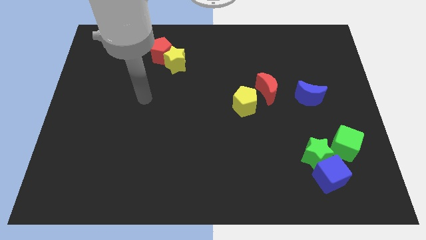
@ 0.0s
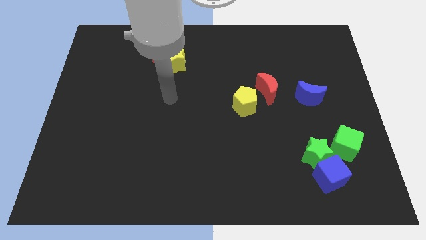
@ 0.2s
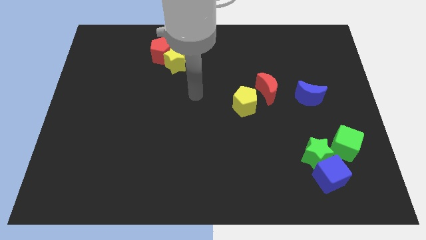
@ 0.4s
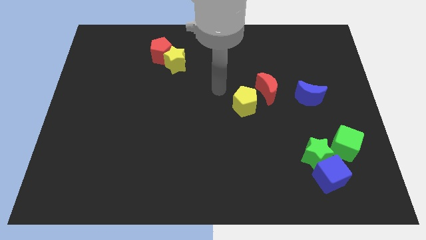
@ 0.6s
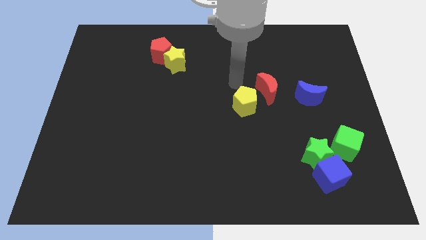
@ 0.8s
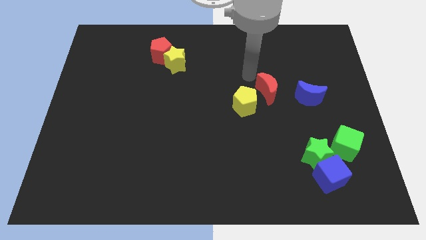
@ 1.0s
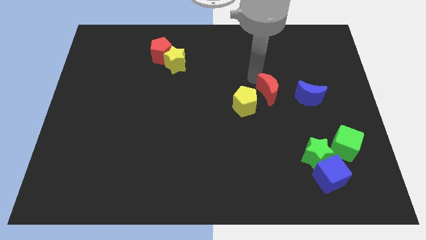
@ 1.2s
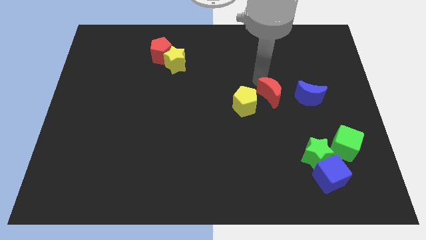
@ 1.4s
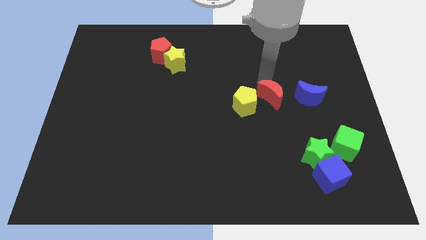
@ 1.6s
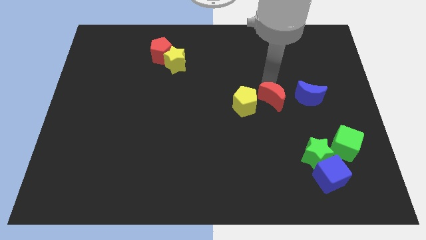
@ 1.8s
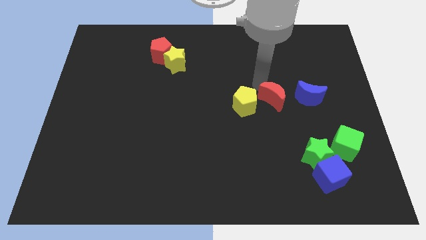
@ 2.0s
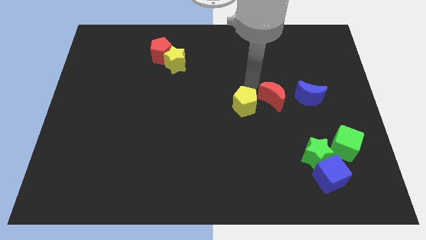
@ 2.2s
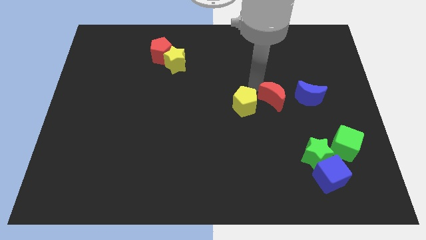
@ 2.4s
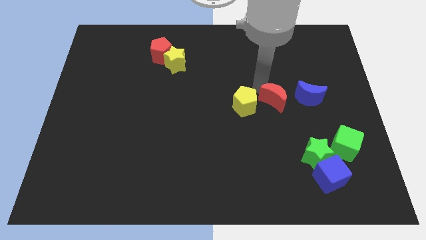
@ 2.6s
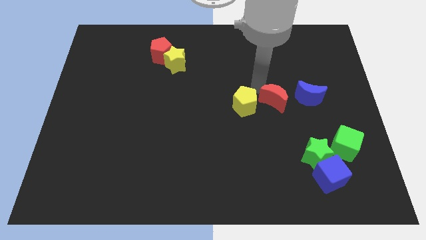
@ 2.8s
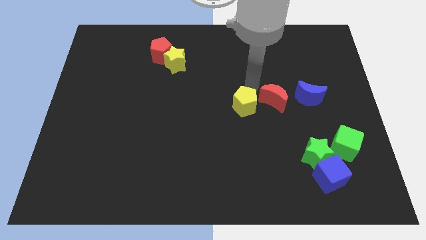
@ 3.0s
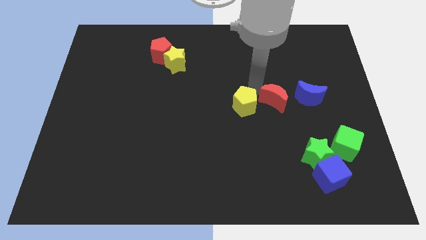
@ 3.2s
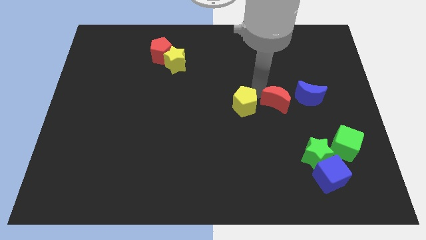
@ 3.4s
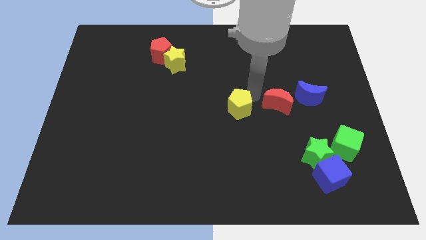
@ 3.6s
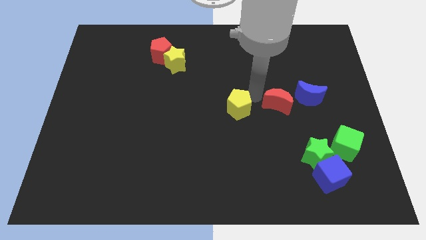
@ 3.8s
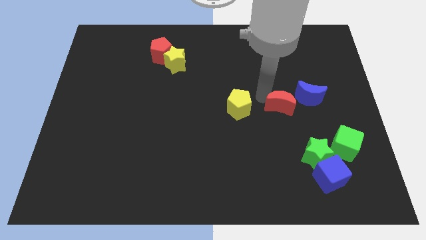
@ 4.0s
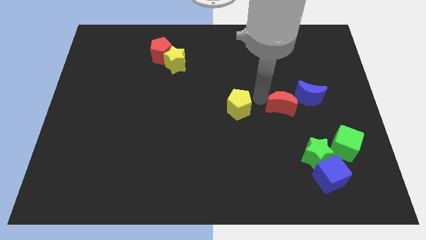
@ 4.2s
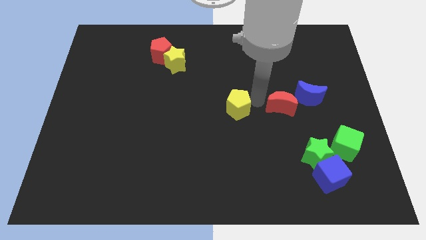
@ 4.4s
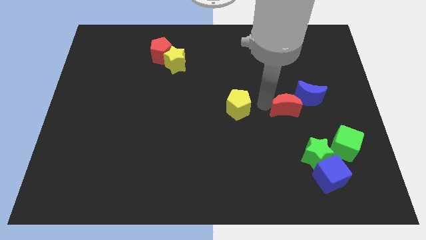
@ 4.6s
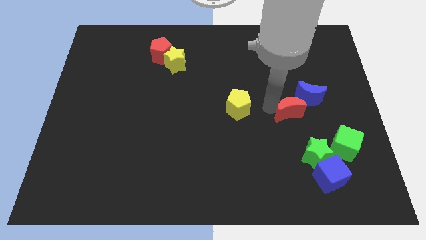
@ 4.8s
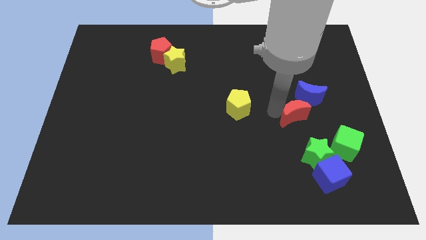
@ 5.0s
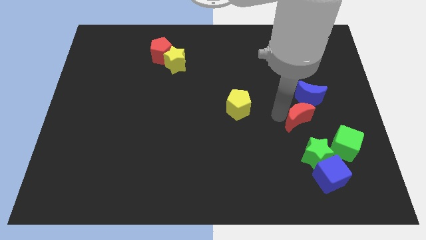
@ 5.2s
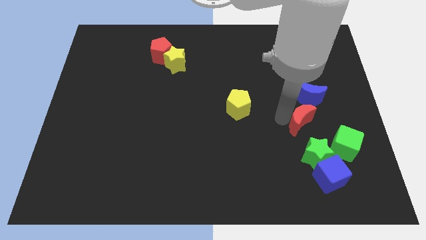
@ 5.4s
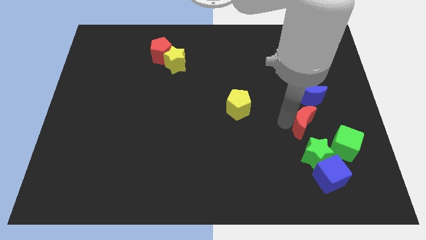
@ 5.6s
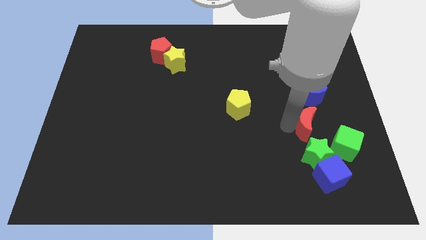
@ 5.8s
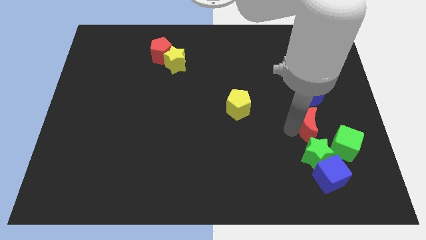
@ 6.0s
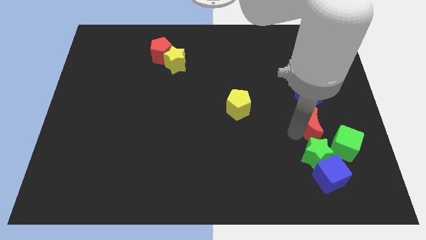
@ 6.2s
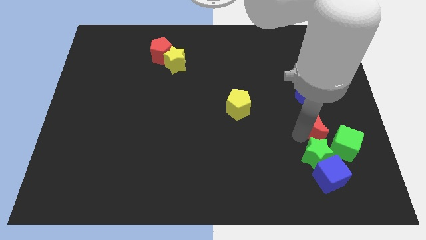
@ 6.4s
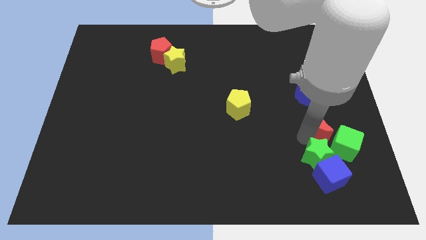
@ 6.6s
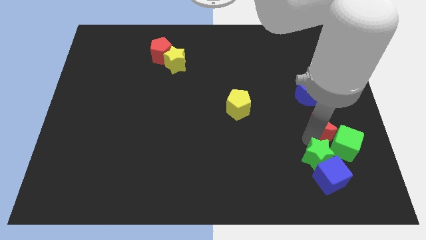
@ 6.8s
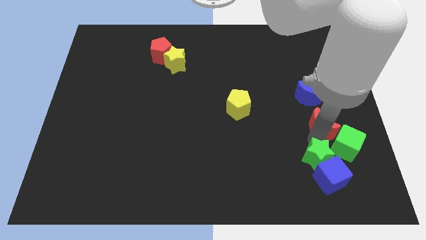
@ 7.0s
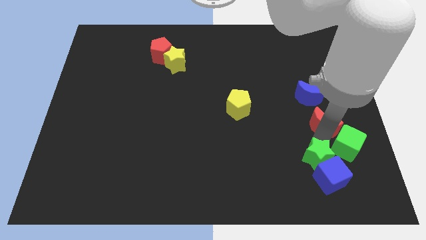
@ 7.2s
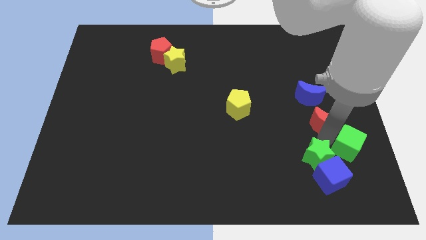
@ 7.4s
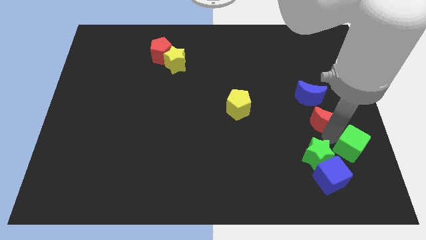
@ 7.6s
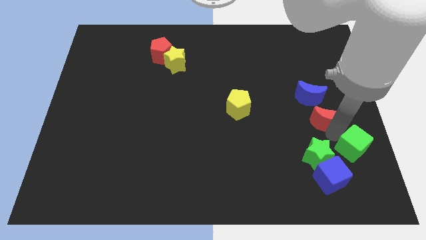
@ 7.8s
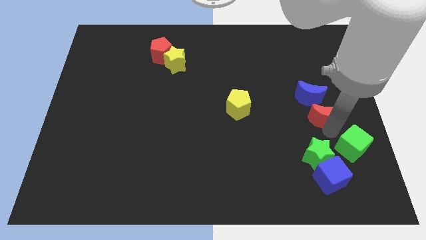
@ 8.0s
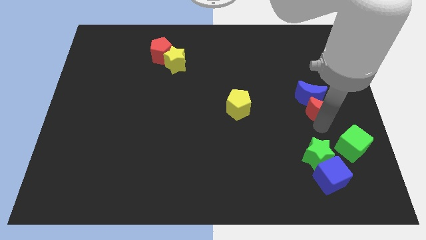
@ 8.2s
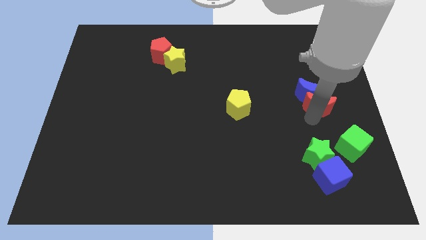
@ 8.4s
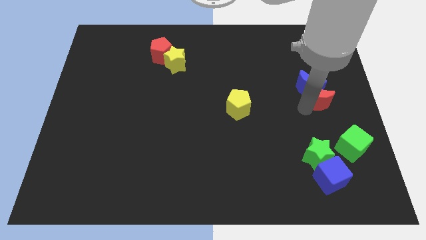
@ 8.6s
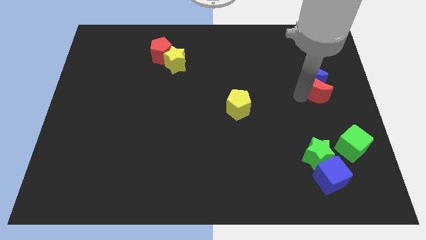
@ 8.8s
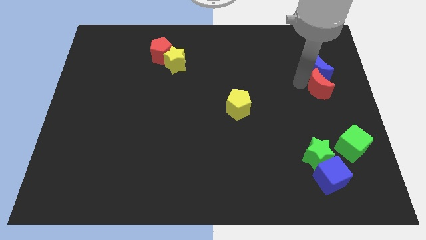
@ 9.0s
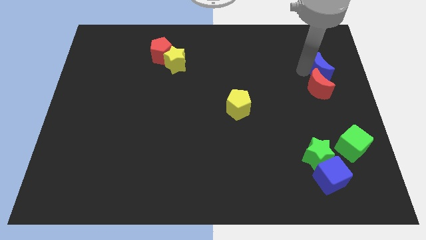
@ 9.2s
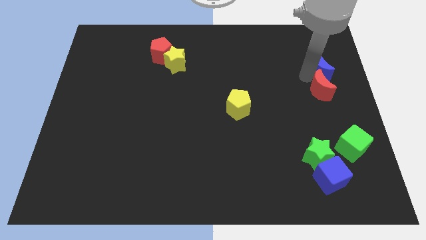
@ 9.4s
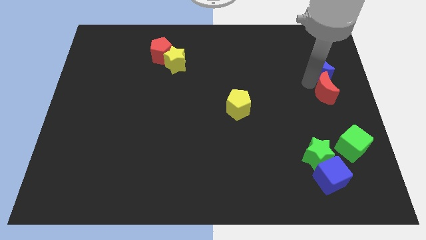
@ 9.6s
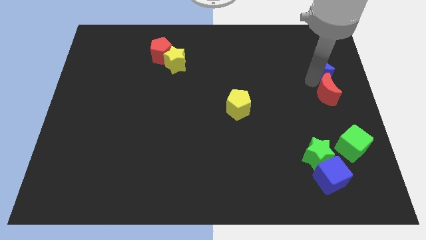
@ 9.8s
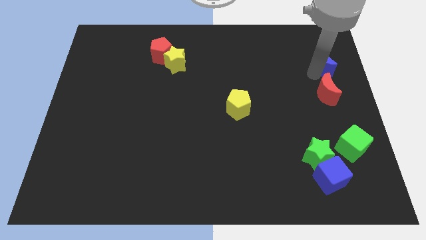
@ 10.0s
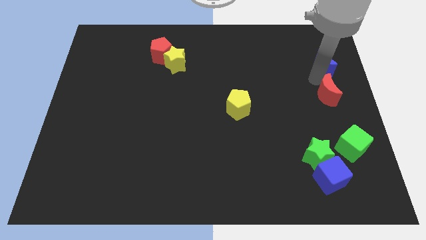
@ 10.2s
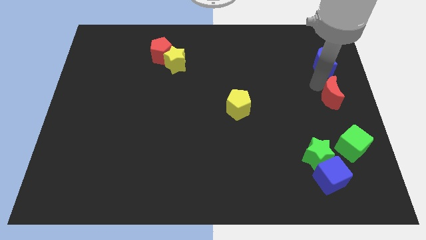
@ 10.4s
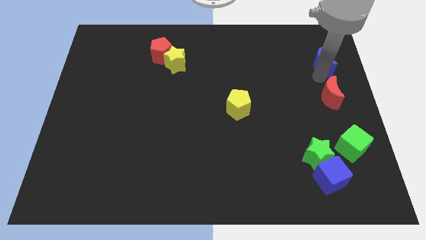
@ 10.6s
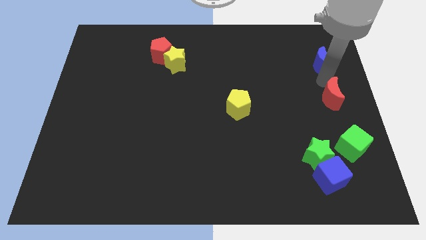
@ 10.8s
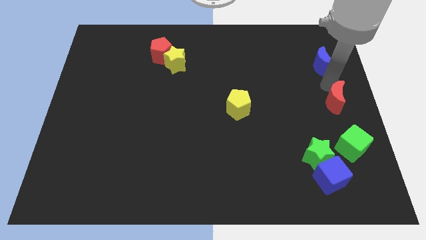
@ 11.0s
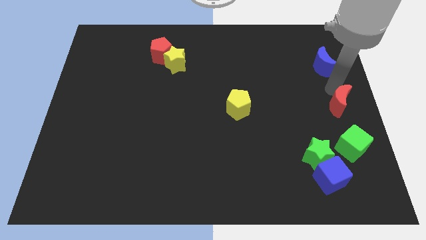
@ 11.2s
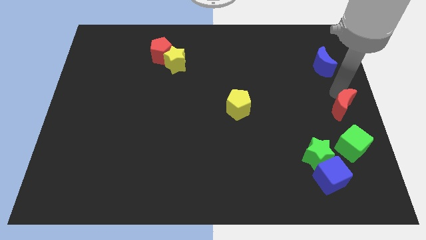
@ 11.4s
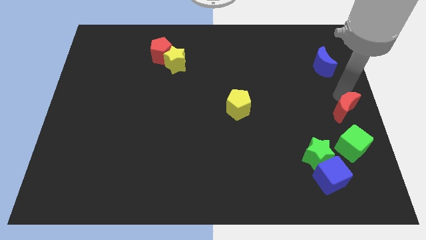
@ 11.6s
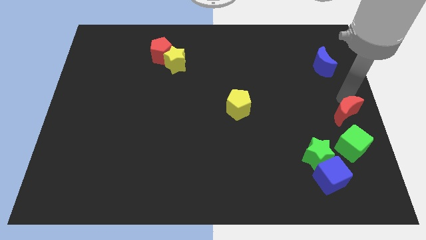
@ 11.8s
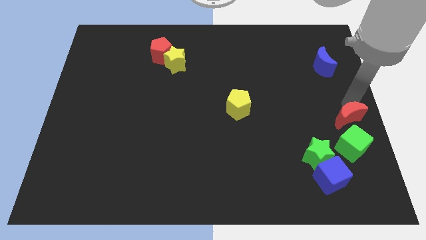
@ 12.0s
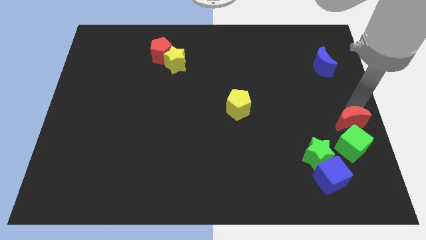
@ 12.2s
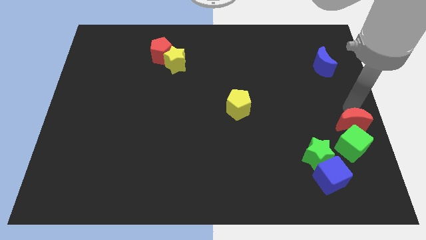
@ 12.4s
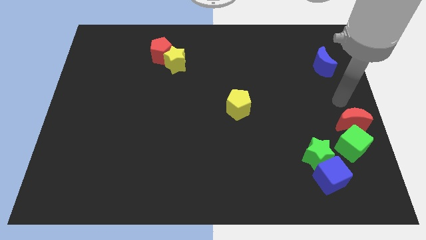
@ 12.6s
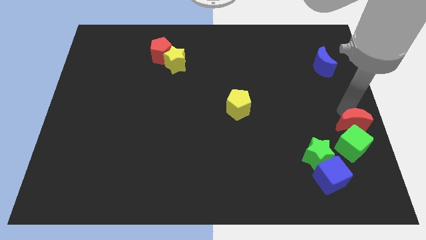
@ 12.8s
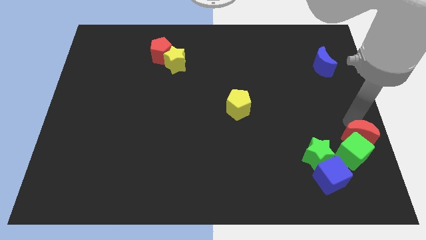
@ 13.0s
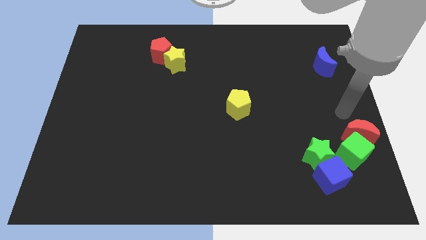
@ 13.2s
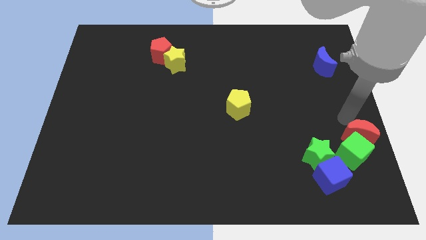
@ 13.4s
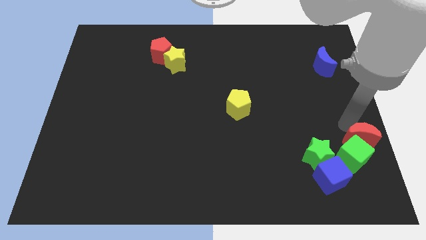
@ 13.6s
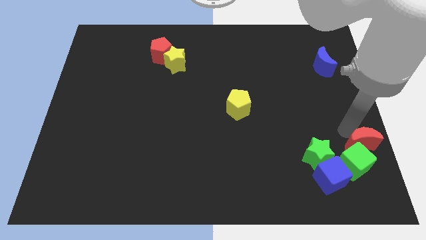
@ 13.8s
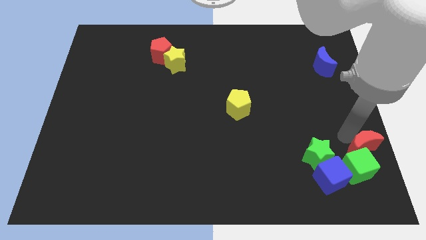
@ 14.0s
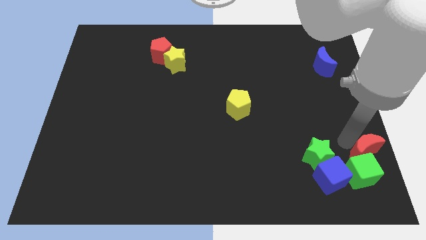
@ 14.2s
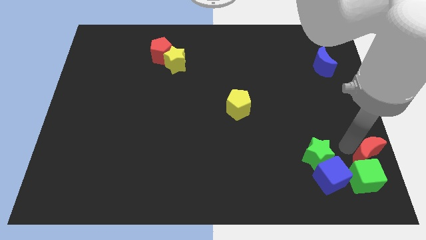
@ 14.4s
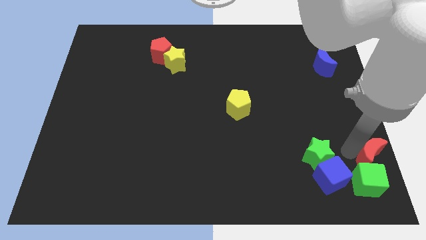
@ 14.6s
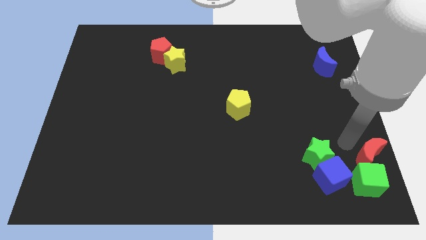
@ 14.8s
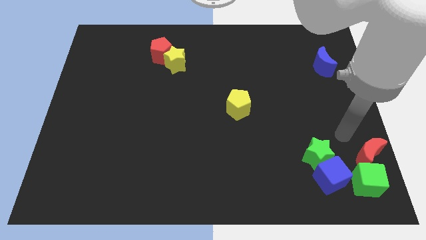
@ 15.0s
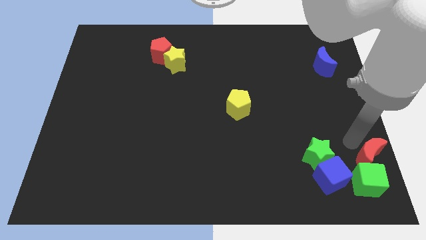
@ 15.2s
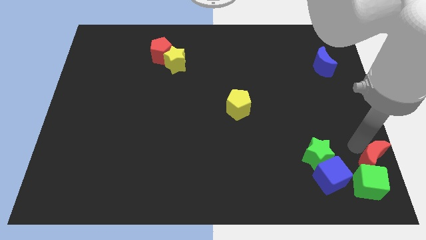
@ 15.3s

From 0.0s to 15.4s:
put the red moon to the lower right corner
